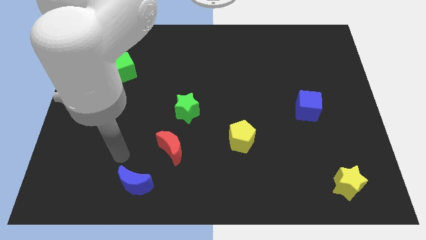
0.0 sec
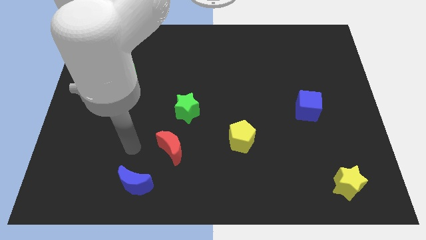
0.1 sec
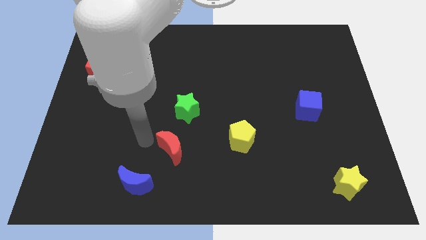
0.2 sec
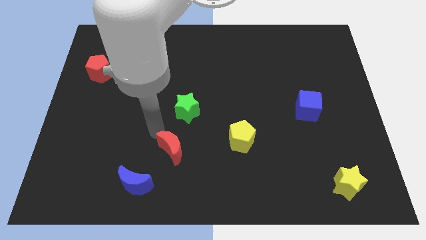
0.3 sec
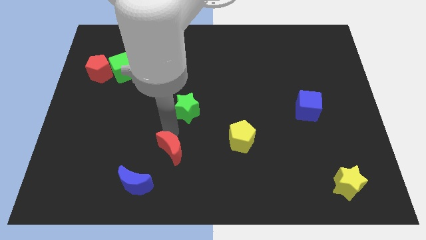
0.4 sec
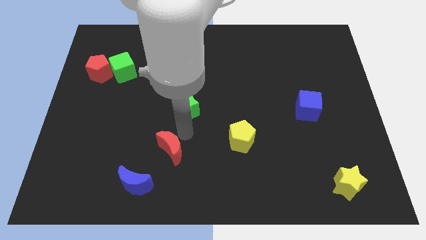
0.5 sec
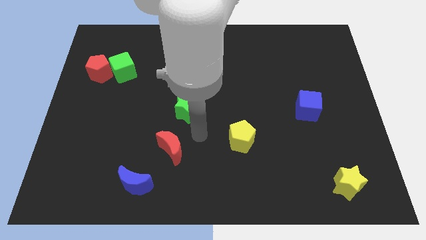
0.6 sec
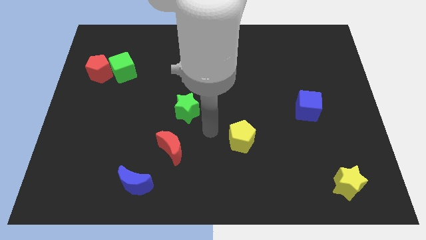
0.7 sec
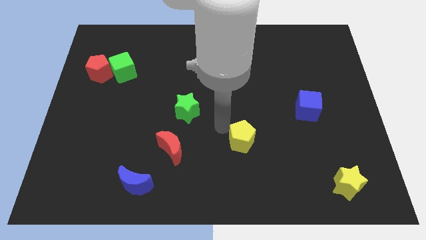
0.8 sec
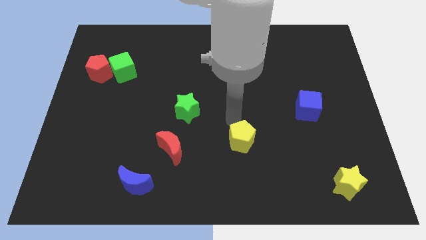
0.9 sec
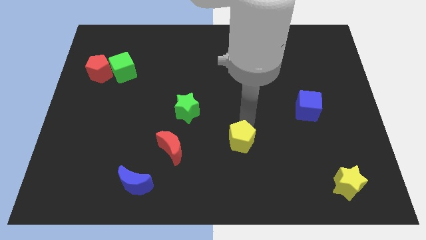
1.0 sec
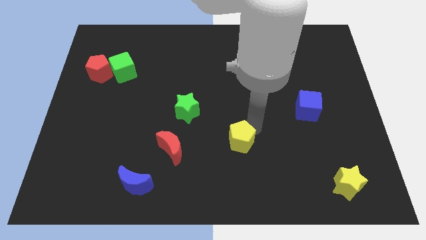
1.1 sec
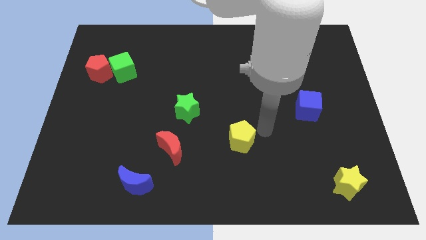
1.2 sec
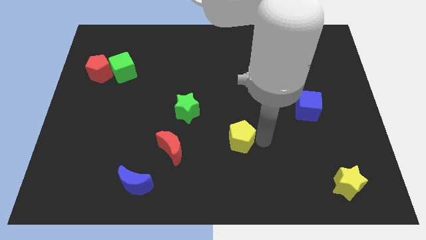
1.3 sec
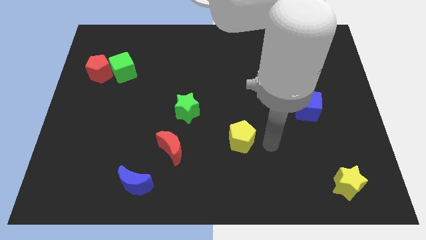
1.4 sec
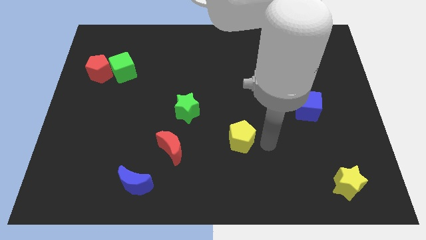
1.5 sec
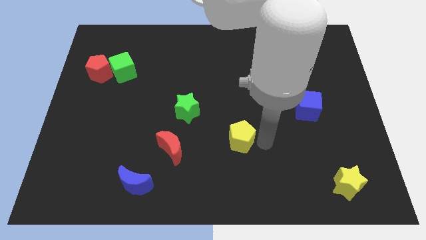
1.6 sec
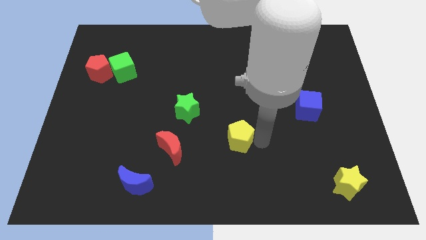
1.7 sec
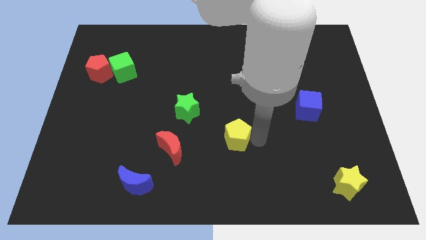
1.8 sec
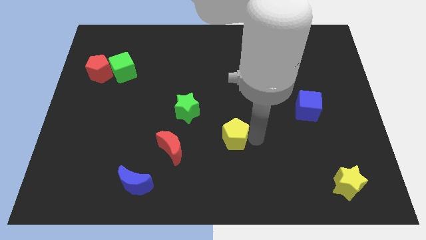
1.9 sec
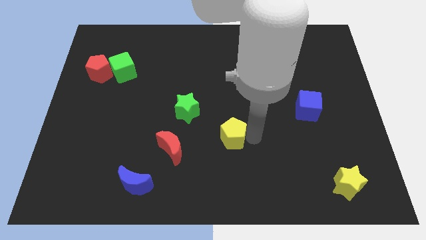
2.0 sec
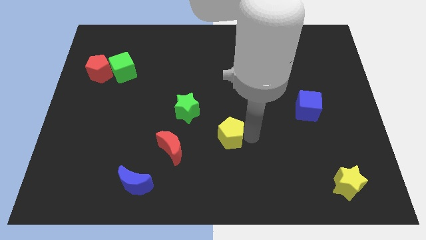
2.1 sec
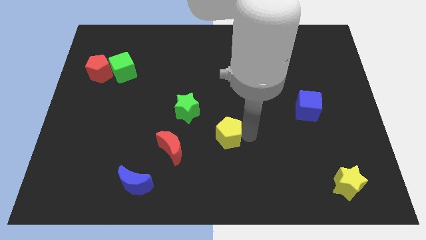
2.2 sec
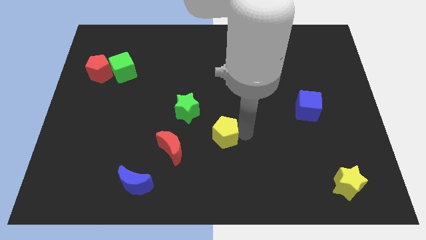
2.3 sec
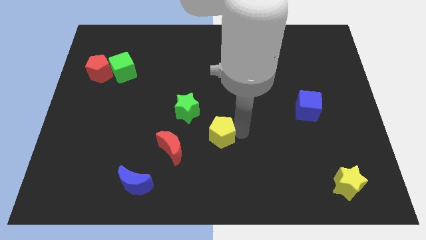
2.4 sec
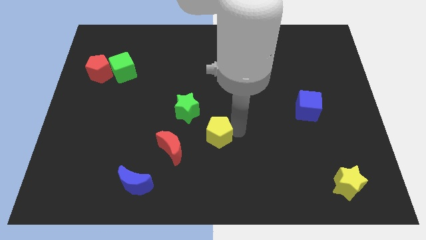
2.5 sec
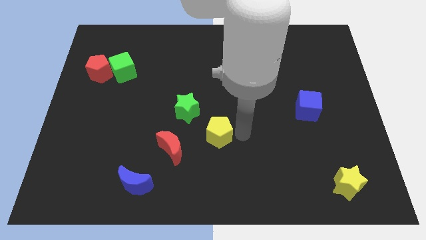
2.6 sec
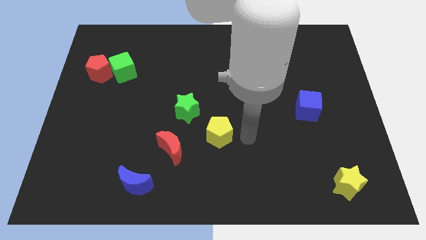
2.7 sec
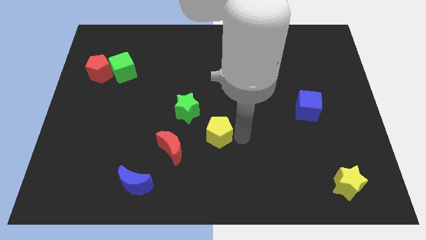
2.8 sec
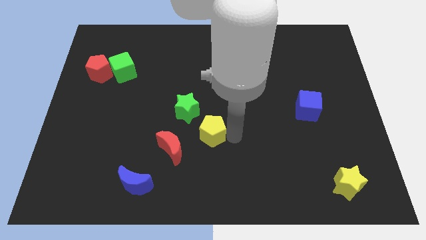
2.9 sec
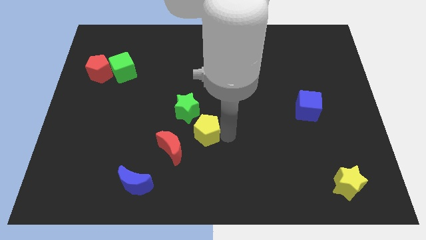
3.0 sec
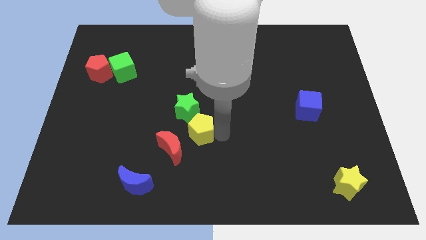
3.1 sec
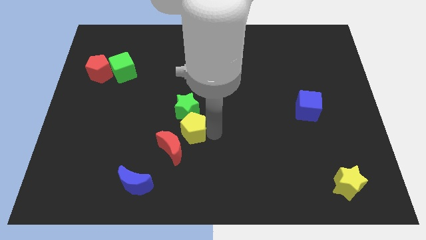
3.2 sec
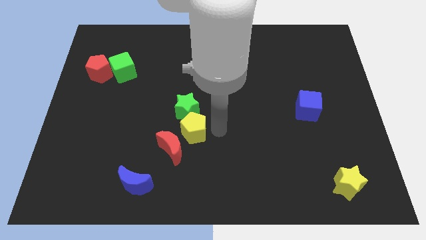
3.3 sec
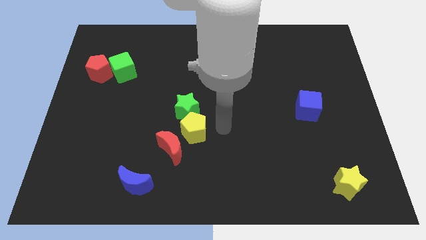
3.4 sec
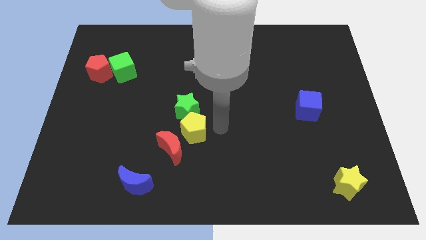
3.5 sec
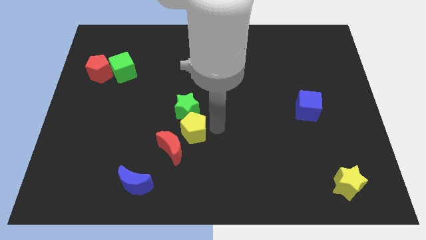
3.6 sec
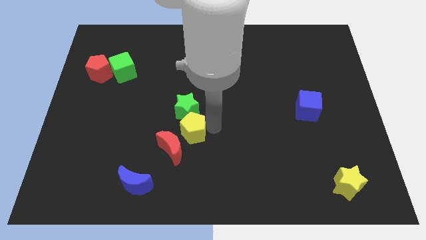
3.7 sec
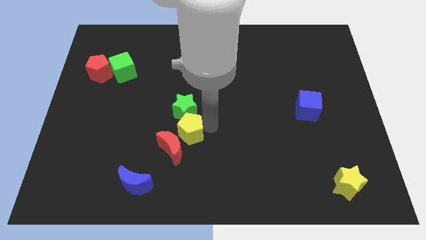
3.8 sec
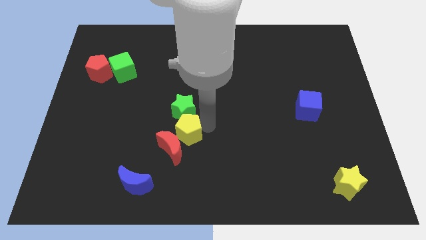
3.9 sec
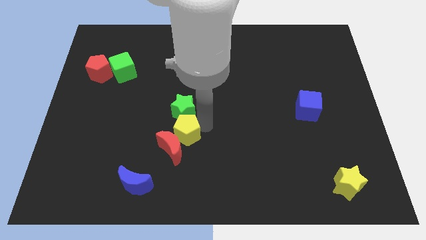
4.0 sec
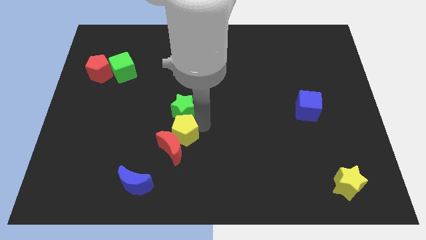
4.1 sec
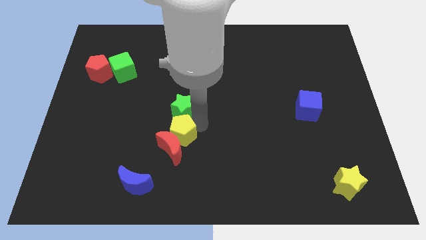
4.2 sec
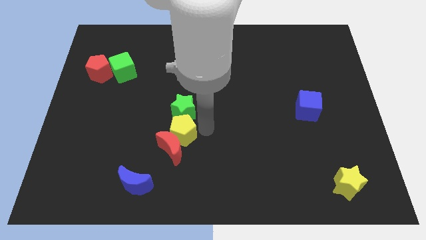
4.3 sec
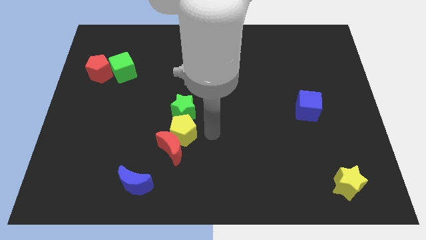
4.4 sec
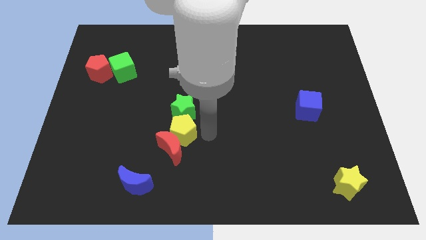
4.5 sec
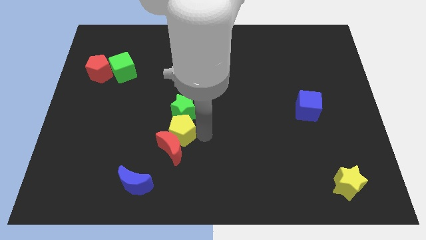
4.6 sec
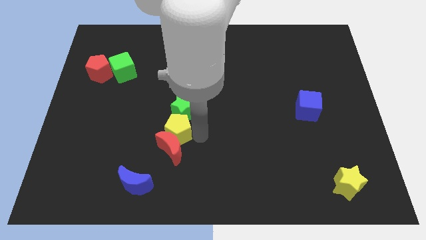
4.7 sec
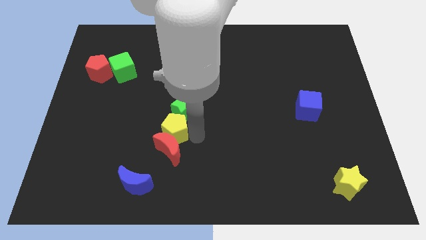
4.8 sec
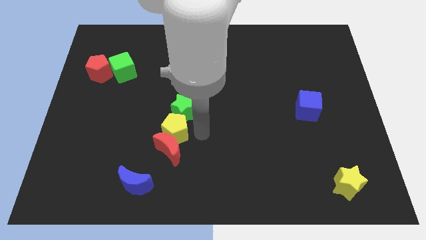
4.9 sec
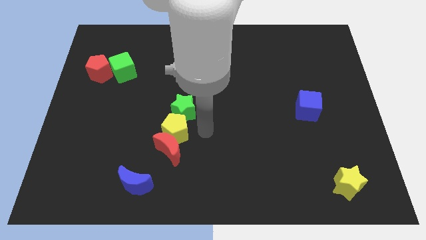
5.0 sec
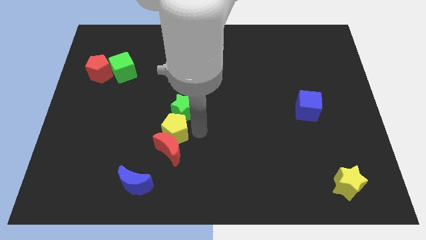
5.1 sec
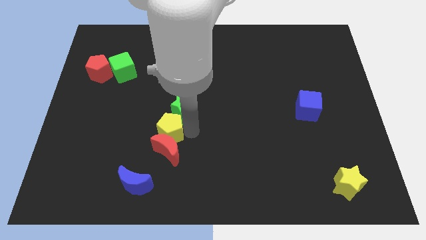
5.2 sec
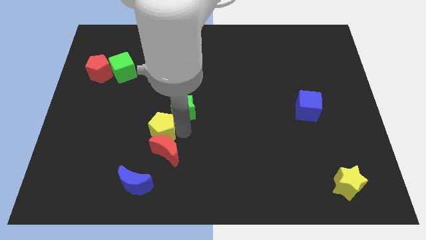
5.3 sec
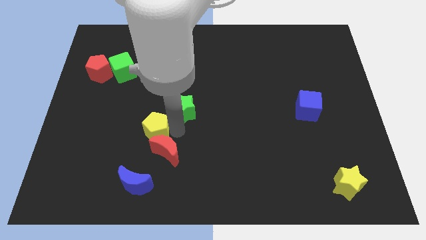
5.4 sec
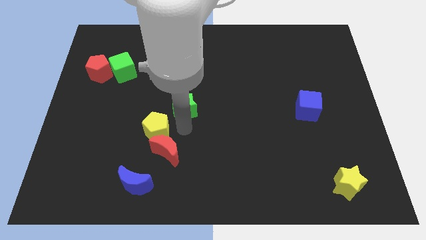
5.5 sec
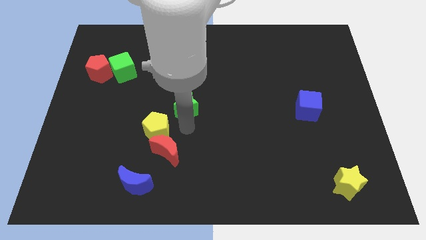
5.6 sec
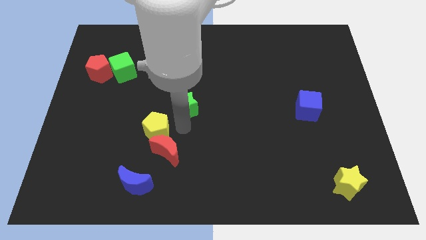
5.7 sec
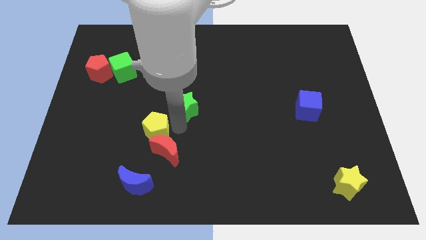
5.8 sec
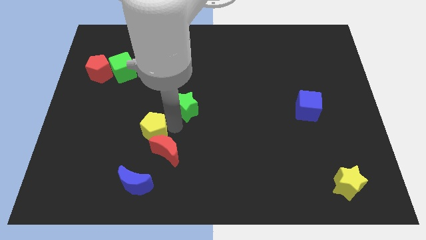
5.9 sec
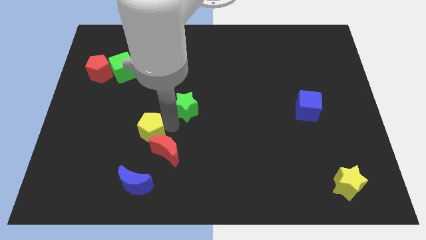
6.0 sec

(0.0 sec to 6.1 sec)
move the yellow pentagon left

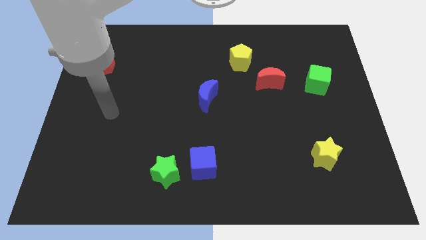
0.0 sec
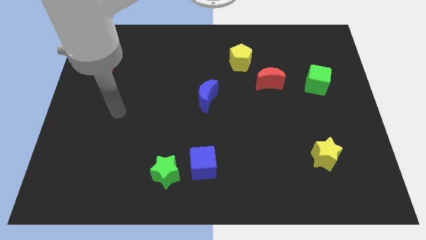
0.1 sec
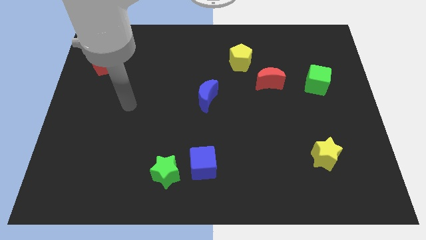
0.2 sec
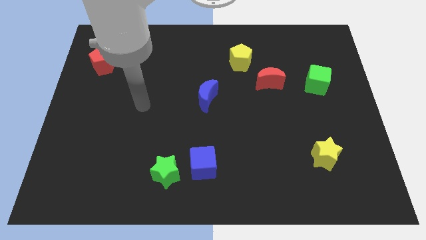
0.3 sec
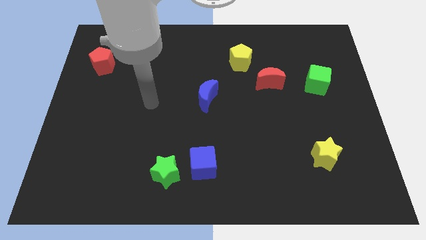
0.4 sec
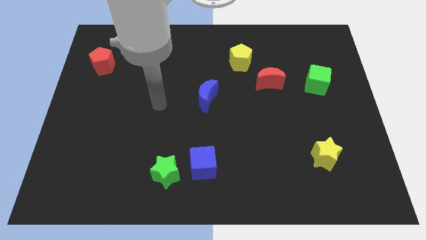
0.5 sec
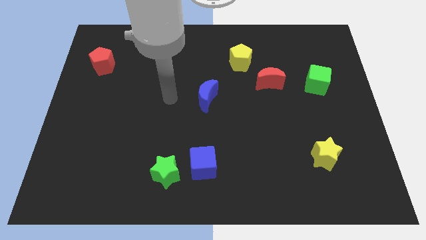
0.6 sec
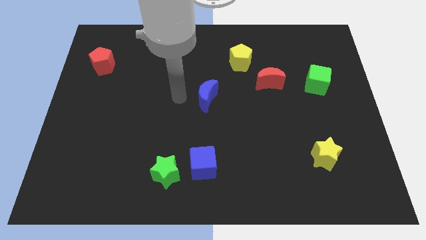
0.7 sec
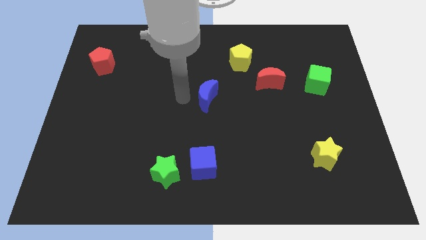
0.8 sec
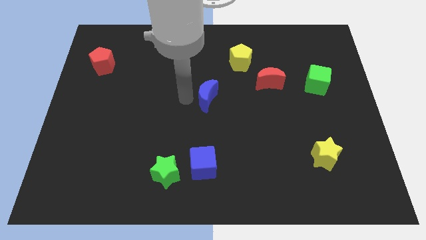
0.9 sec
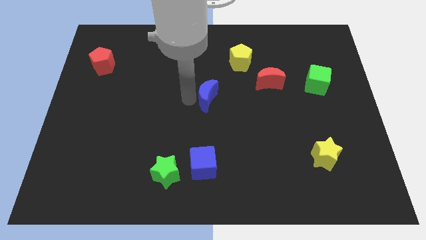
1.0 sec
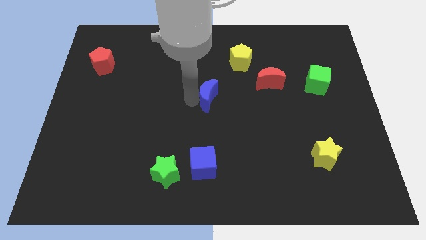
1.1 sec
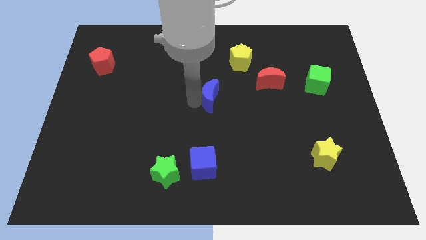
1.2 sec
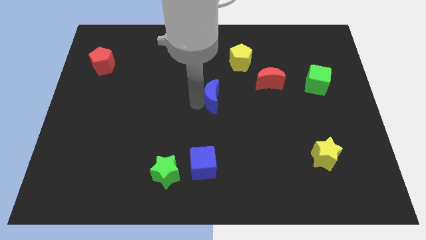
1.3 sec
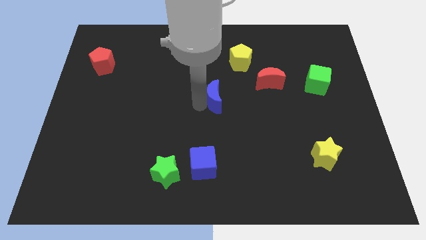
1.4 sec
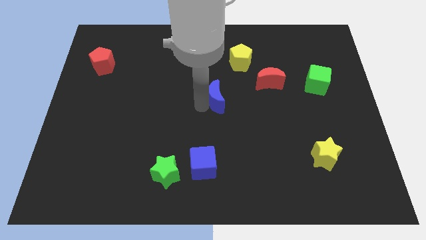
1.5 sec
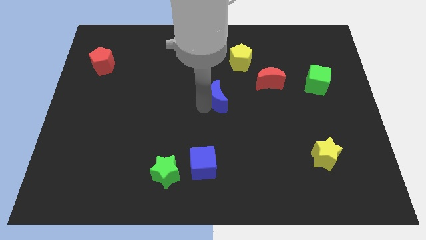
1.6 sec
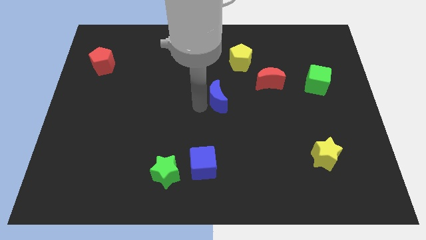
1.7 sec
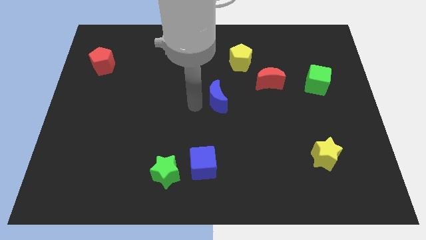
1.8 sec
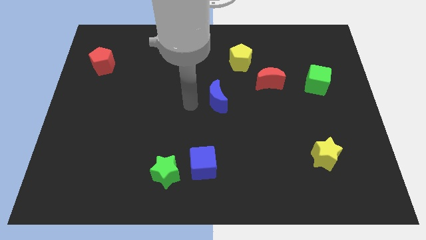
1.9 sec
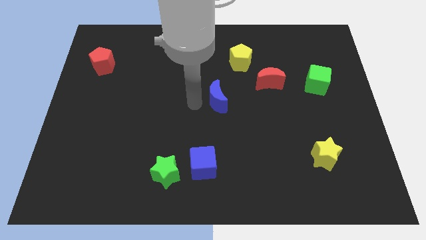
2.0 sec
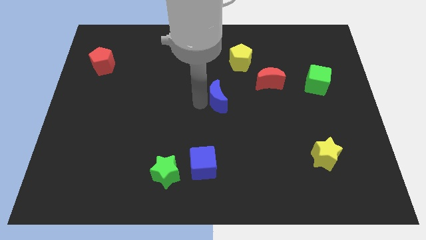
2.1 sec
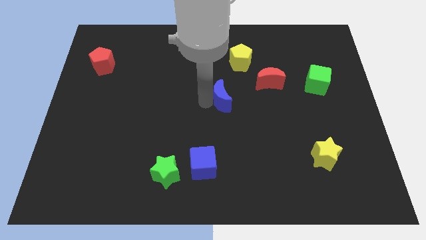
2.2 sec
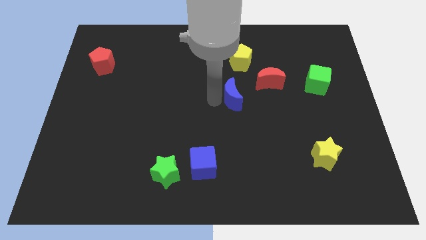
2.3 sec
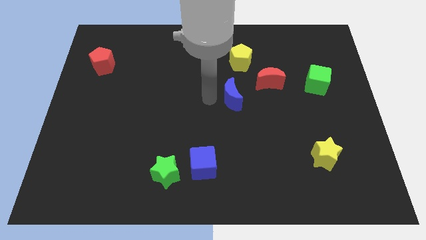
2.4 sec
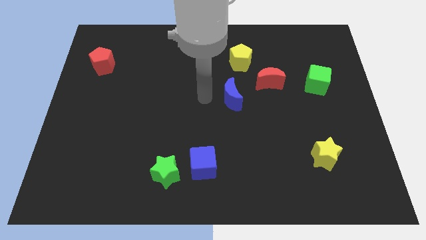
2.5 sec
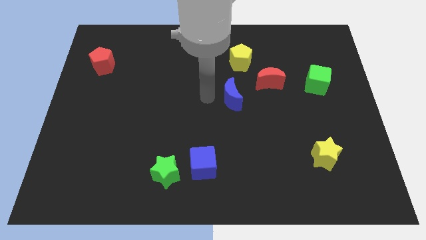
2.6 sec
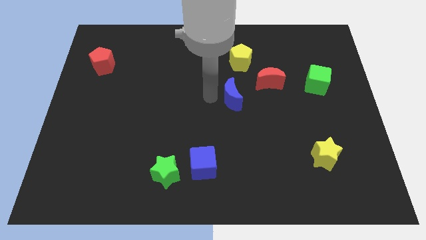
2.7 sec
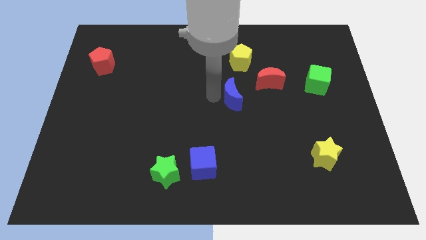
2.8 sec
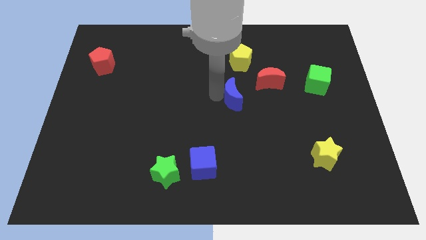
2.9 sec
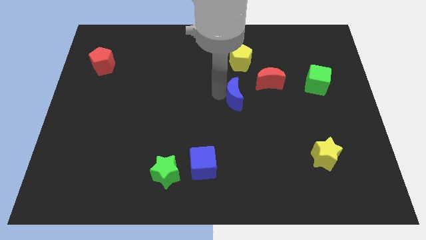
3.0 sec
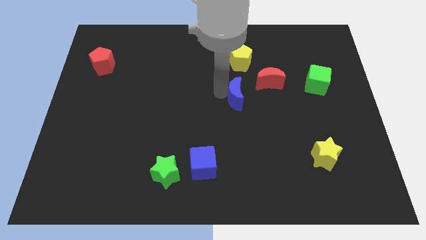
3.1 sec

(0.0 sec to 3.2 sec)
slightly push the blue moon right
